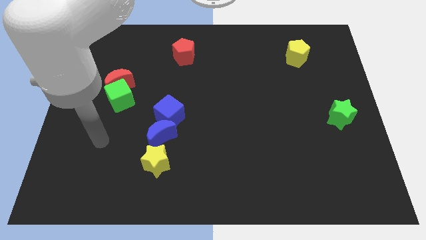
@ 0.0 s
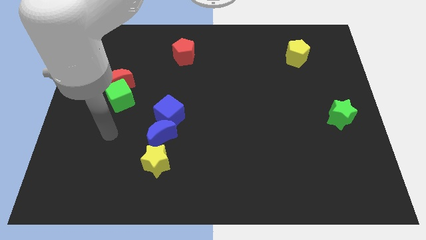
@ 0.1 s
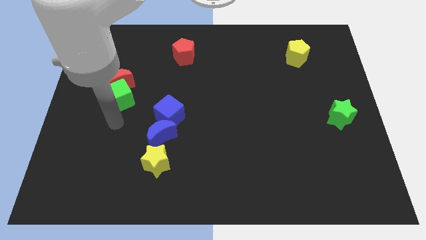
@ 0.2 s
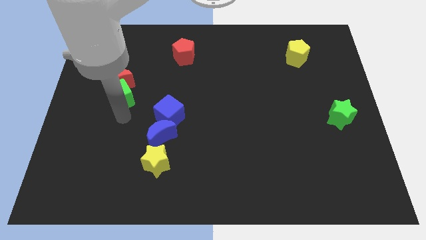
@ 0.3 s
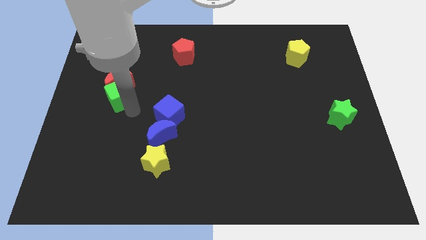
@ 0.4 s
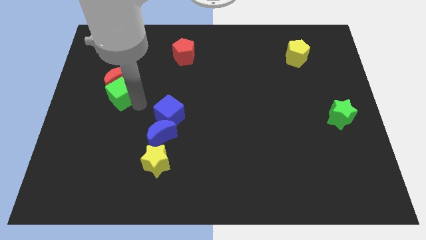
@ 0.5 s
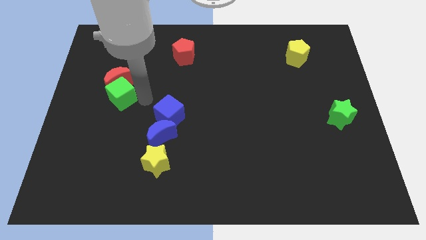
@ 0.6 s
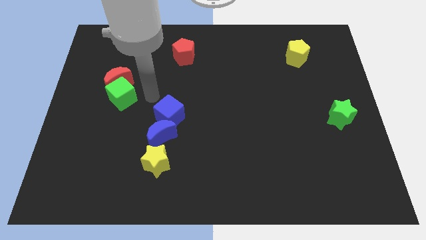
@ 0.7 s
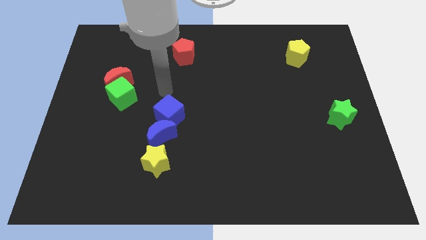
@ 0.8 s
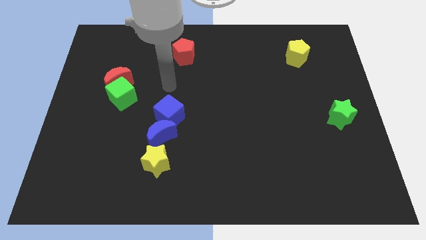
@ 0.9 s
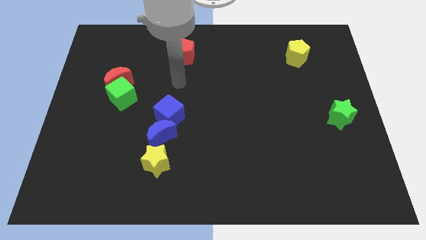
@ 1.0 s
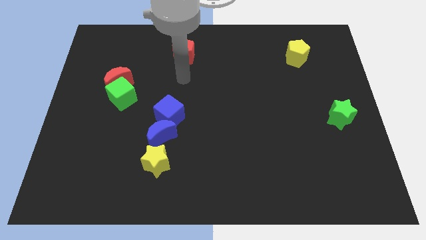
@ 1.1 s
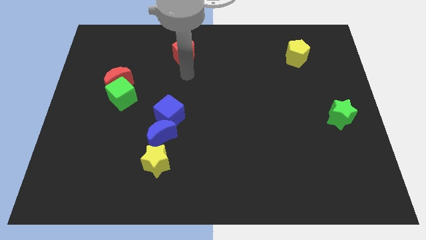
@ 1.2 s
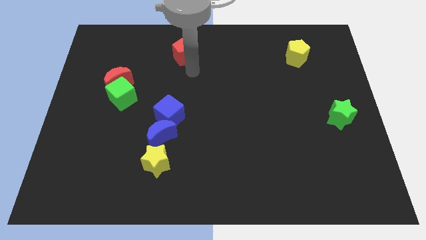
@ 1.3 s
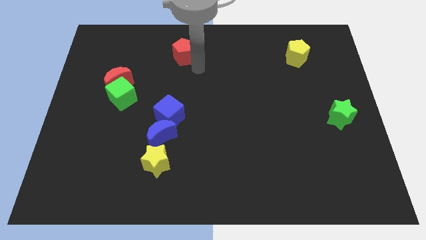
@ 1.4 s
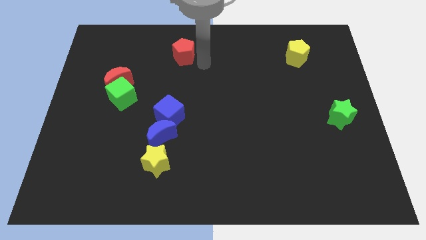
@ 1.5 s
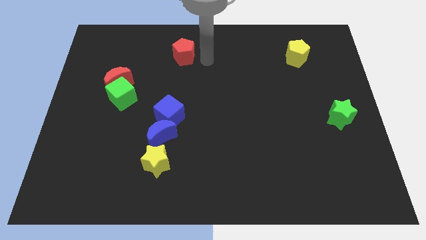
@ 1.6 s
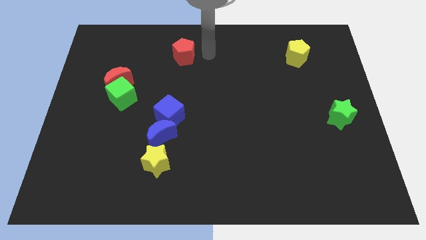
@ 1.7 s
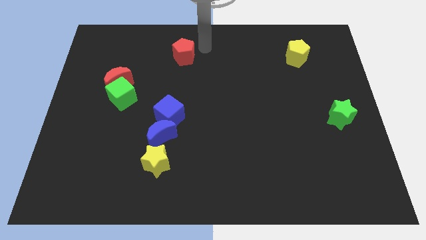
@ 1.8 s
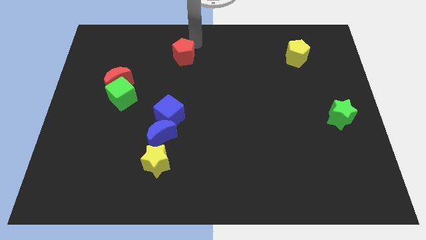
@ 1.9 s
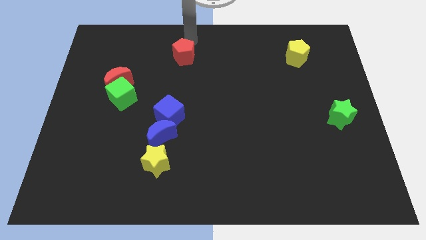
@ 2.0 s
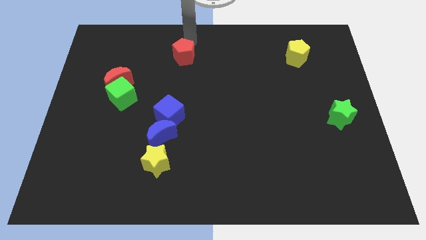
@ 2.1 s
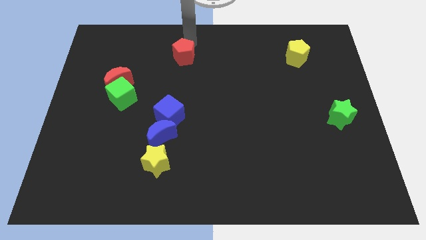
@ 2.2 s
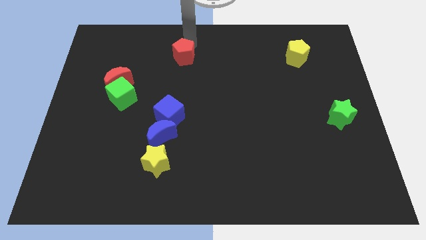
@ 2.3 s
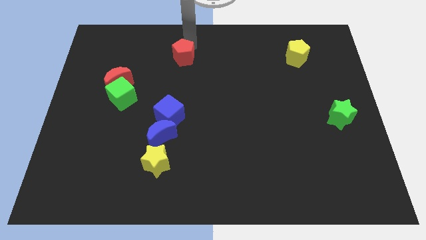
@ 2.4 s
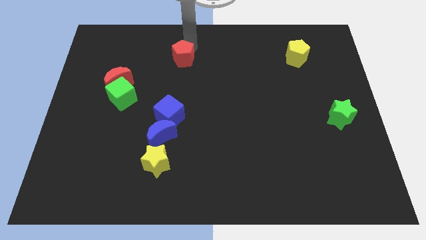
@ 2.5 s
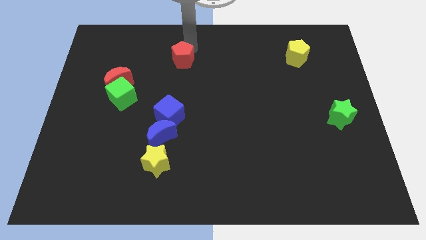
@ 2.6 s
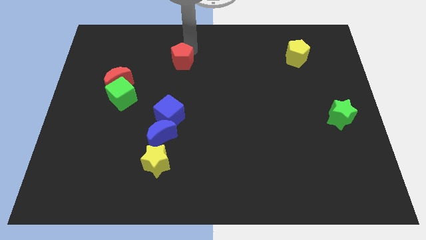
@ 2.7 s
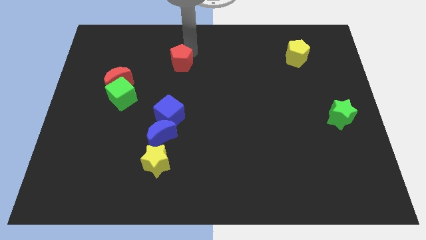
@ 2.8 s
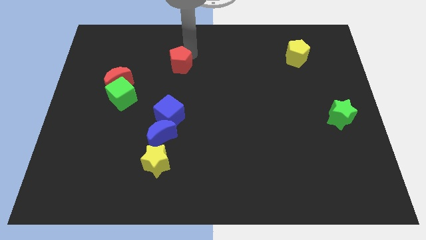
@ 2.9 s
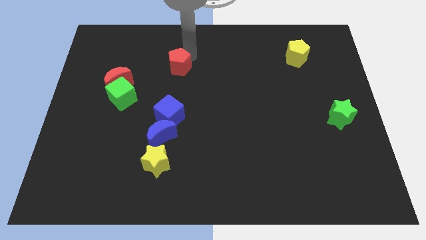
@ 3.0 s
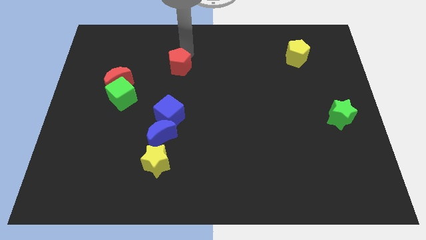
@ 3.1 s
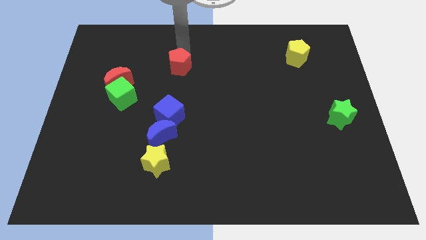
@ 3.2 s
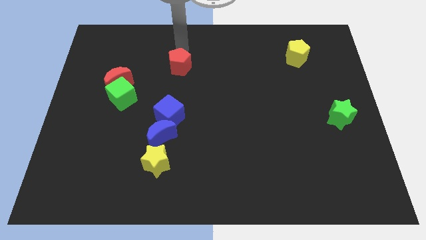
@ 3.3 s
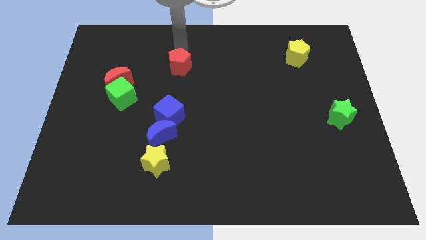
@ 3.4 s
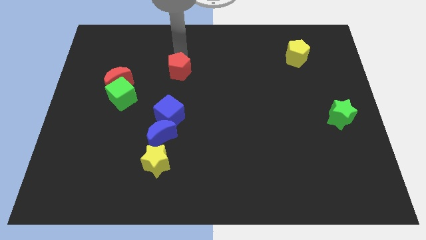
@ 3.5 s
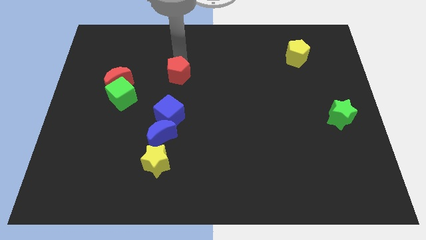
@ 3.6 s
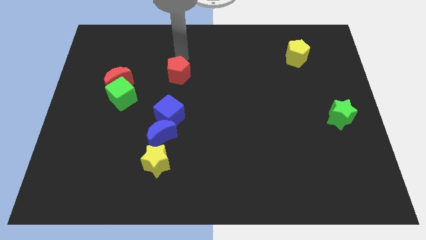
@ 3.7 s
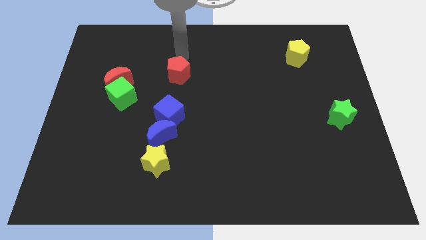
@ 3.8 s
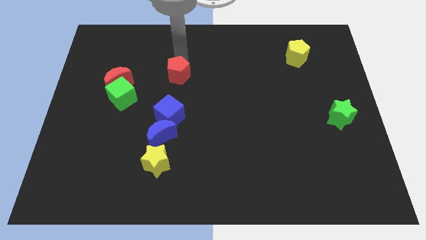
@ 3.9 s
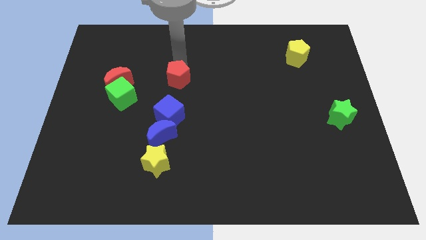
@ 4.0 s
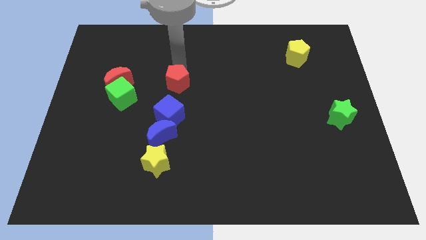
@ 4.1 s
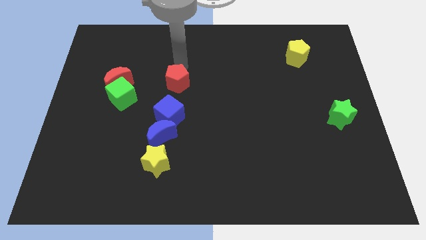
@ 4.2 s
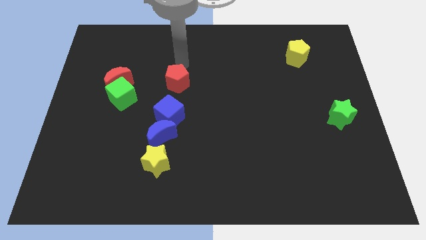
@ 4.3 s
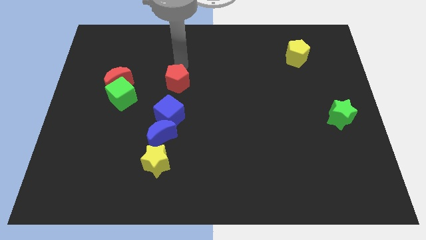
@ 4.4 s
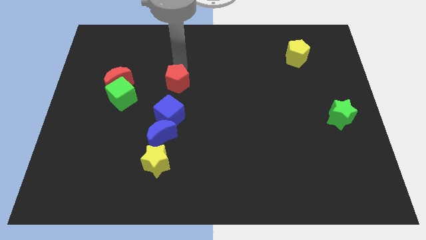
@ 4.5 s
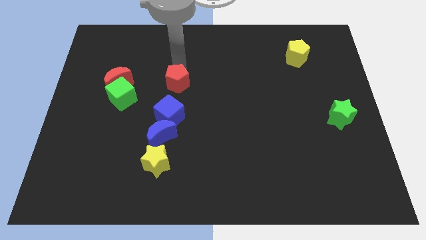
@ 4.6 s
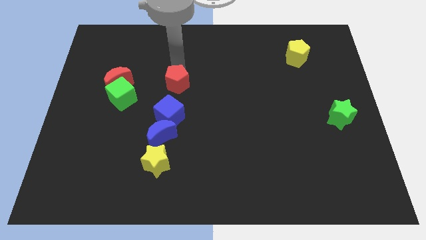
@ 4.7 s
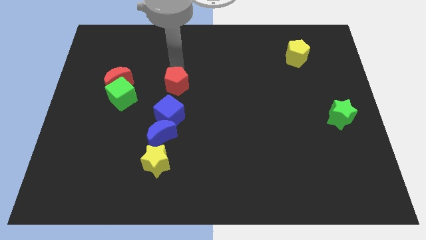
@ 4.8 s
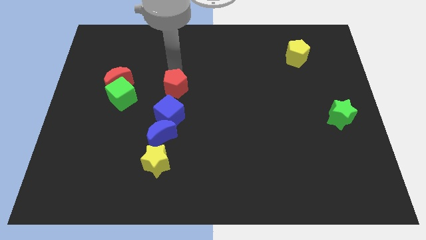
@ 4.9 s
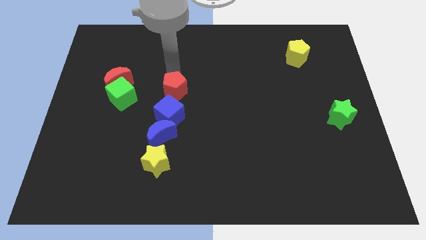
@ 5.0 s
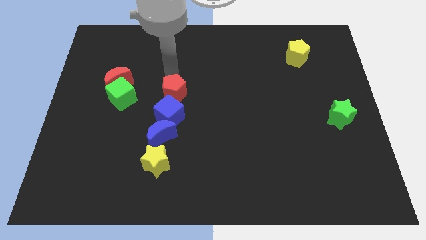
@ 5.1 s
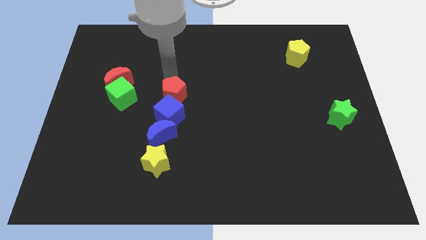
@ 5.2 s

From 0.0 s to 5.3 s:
put the red pentagon next to the blue cube
